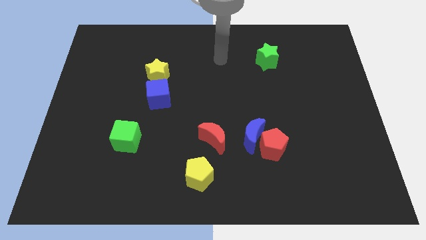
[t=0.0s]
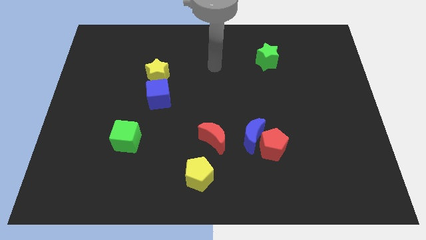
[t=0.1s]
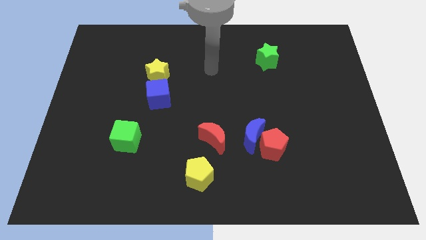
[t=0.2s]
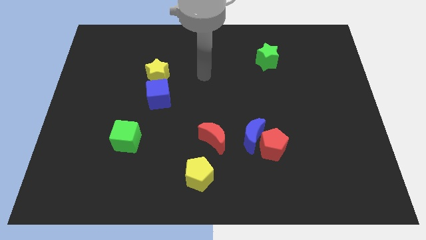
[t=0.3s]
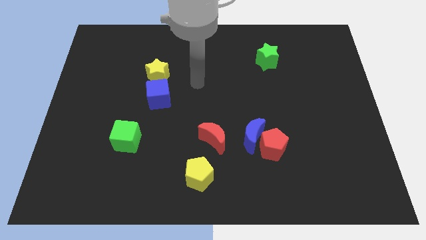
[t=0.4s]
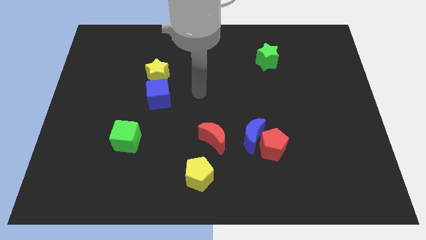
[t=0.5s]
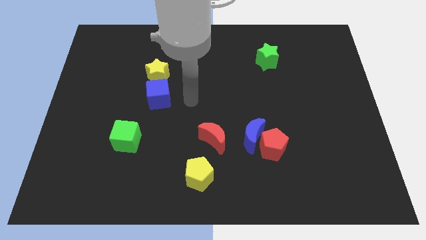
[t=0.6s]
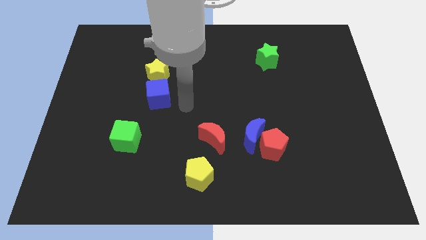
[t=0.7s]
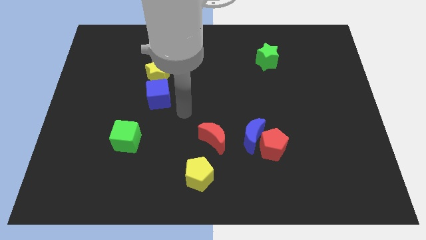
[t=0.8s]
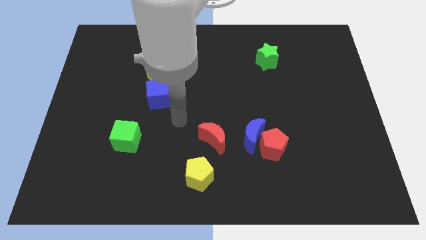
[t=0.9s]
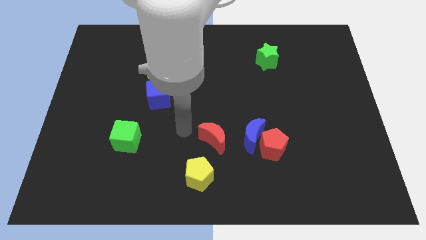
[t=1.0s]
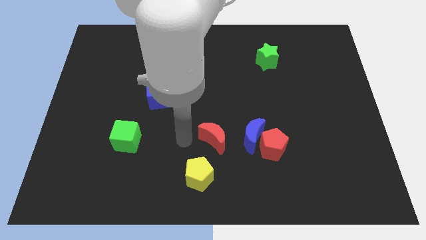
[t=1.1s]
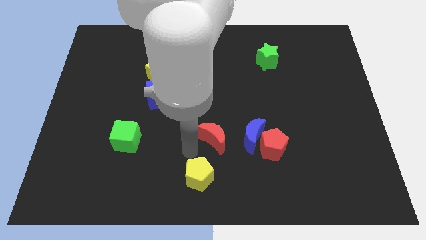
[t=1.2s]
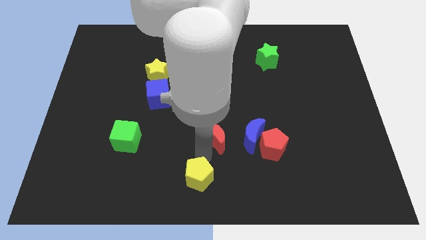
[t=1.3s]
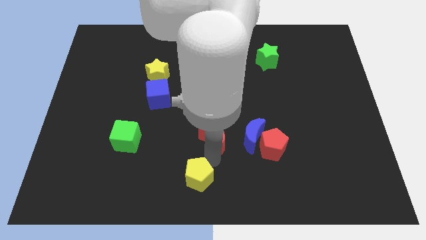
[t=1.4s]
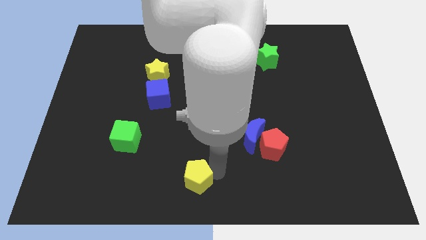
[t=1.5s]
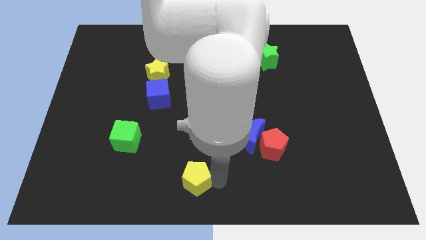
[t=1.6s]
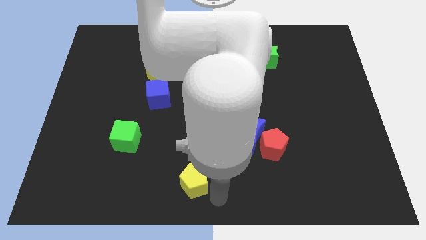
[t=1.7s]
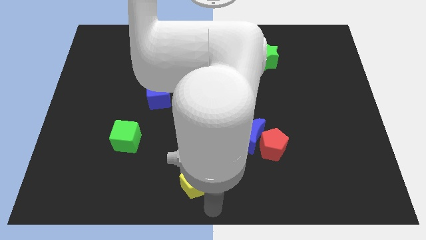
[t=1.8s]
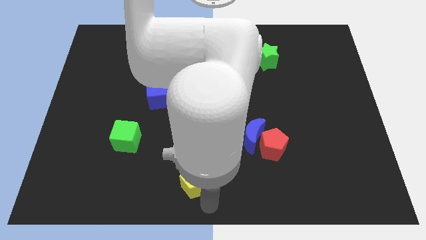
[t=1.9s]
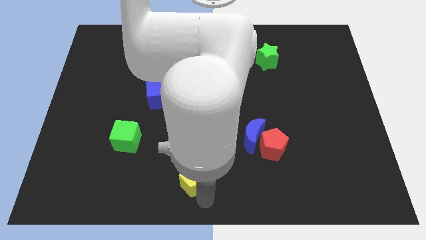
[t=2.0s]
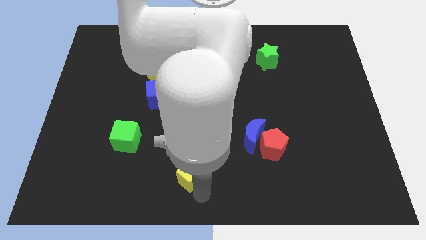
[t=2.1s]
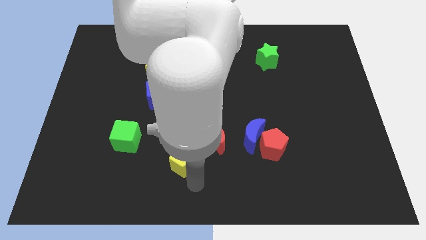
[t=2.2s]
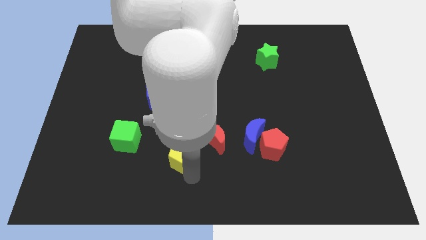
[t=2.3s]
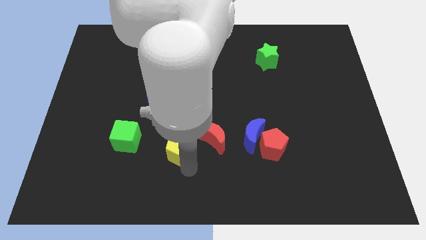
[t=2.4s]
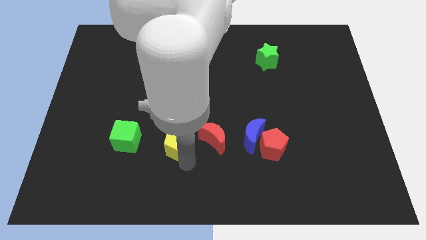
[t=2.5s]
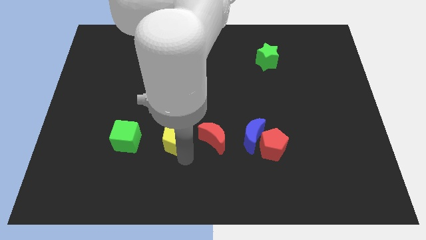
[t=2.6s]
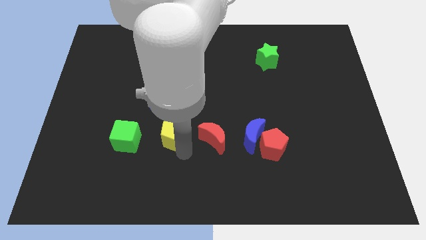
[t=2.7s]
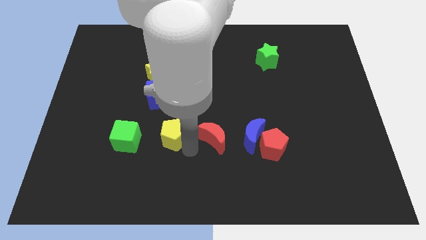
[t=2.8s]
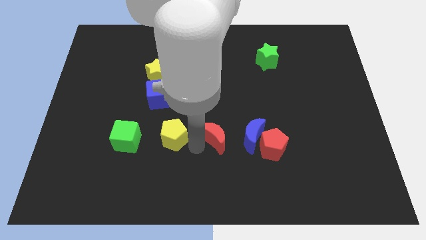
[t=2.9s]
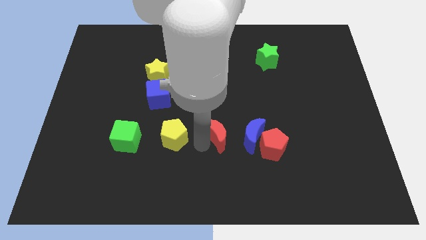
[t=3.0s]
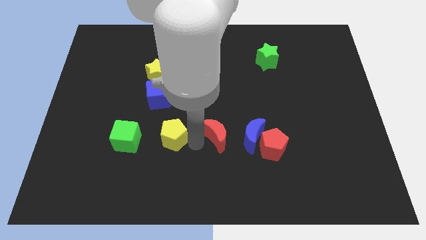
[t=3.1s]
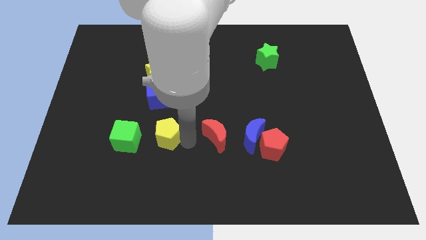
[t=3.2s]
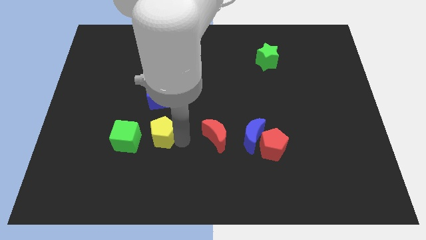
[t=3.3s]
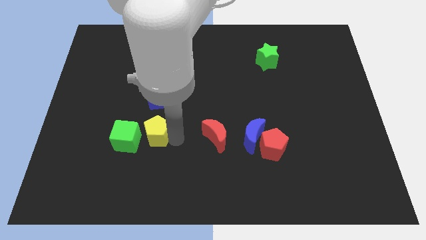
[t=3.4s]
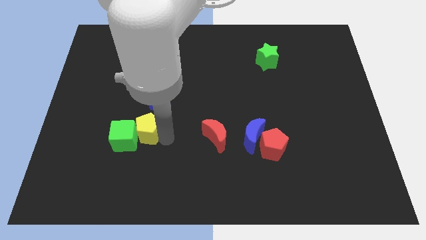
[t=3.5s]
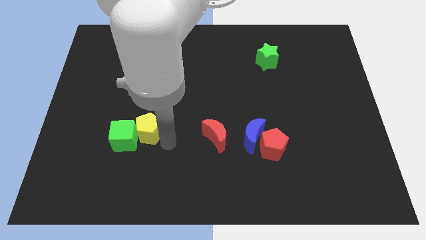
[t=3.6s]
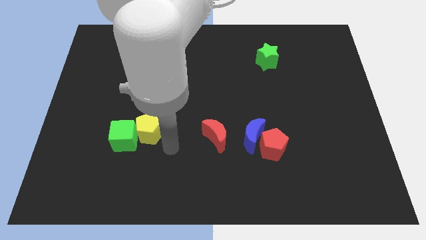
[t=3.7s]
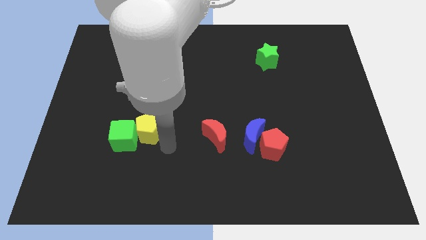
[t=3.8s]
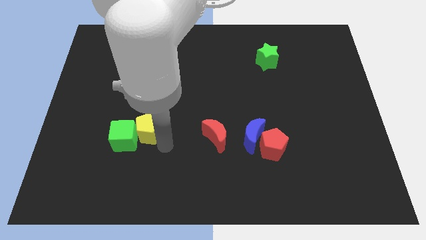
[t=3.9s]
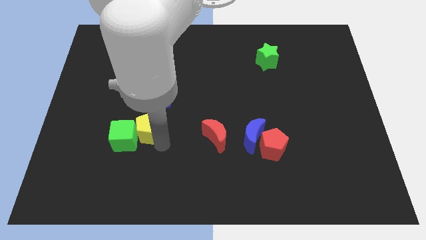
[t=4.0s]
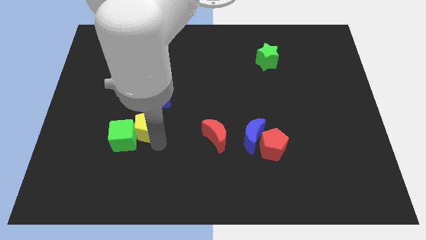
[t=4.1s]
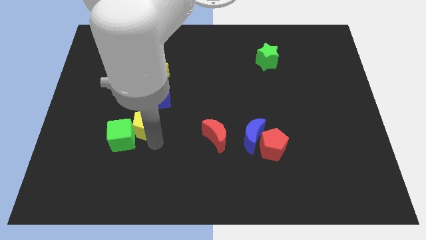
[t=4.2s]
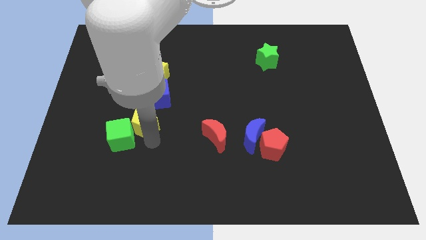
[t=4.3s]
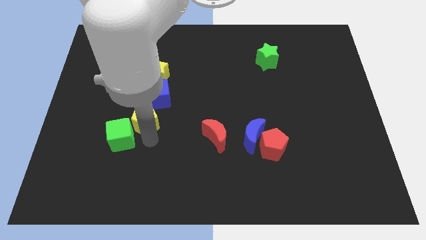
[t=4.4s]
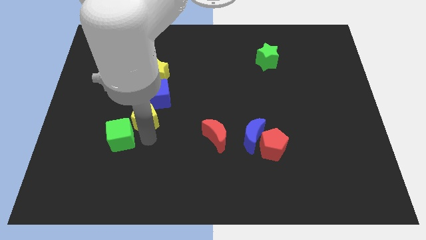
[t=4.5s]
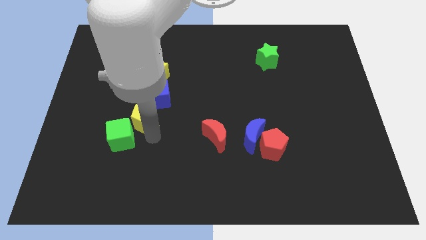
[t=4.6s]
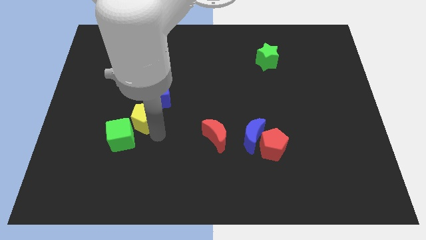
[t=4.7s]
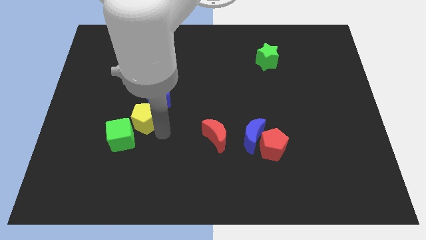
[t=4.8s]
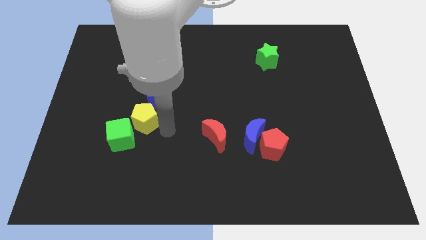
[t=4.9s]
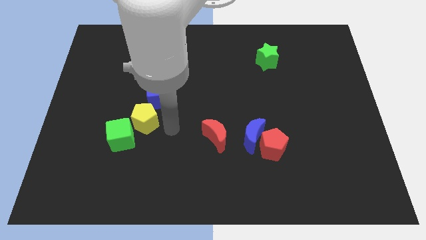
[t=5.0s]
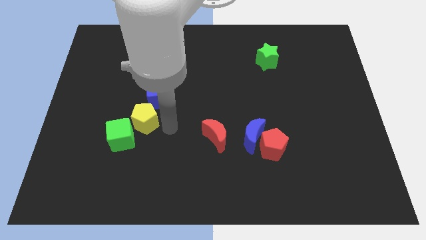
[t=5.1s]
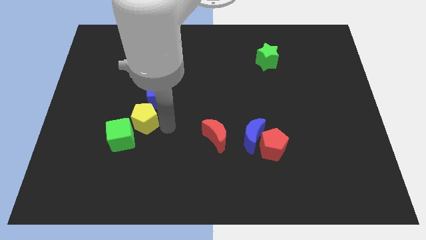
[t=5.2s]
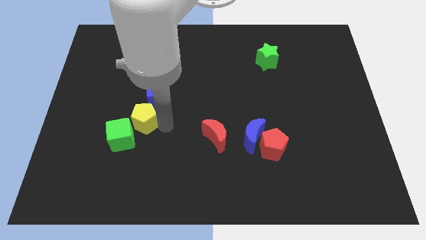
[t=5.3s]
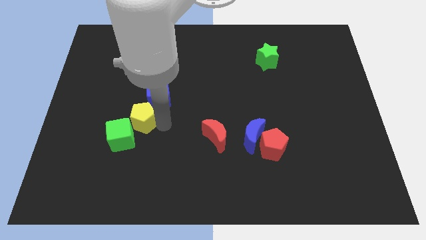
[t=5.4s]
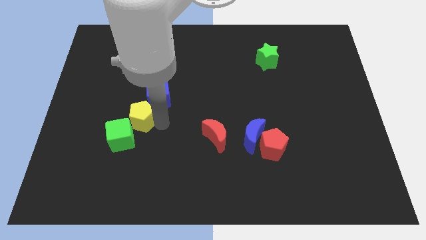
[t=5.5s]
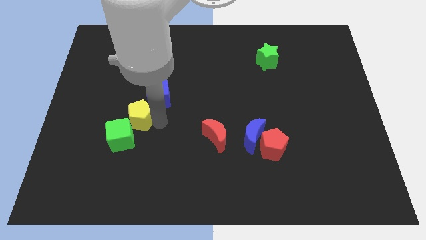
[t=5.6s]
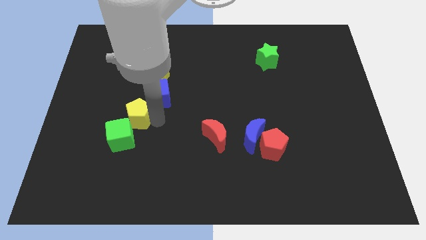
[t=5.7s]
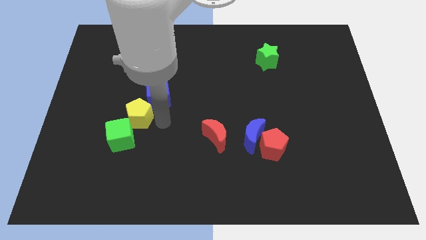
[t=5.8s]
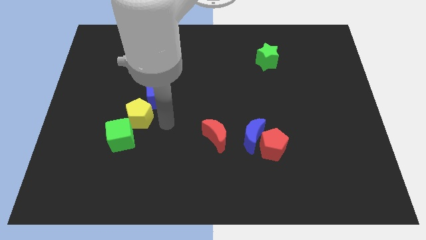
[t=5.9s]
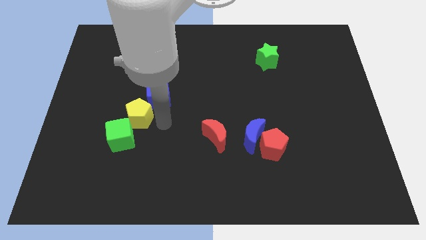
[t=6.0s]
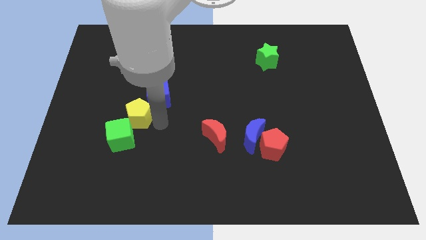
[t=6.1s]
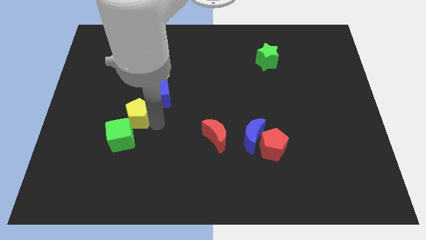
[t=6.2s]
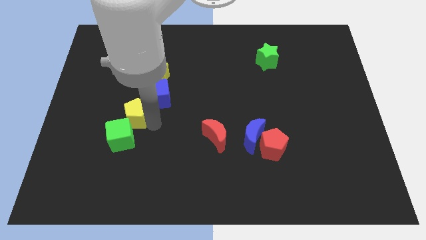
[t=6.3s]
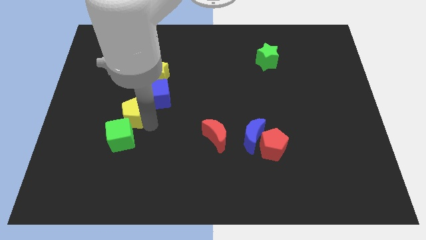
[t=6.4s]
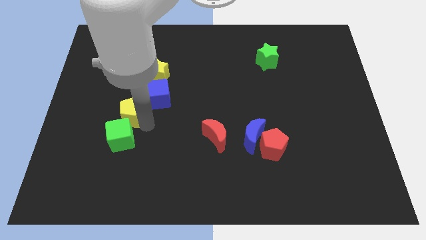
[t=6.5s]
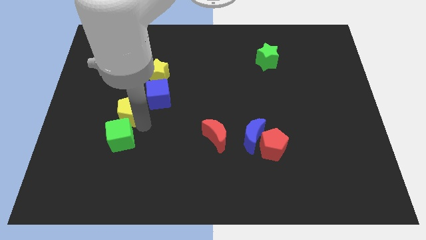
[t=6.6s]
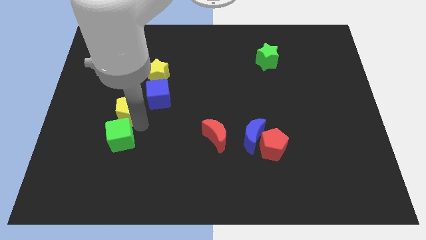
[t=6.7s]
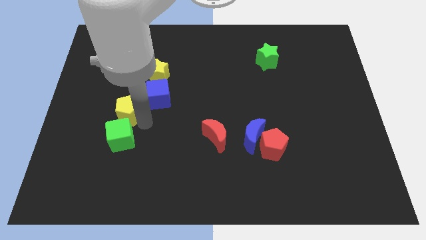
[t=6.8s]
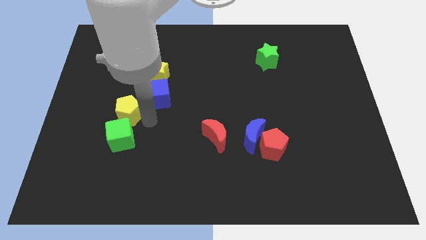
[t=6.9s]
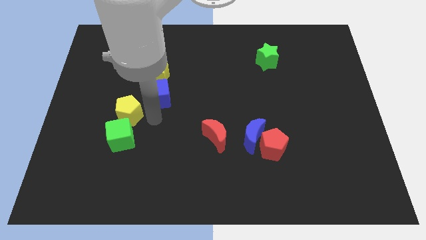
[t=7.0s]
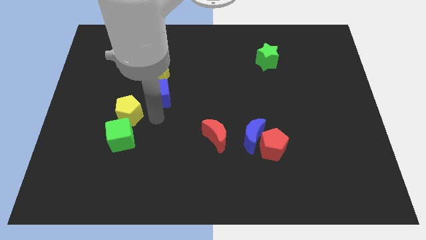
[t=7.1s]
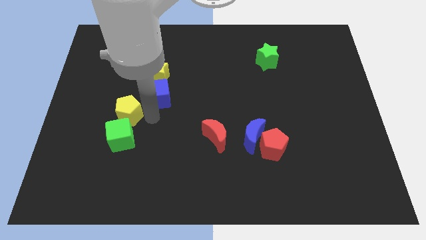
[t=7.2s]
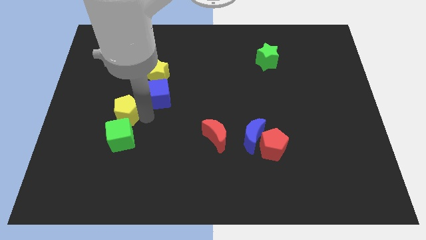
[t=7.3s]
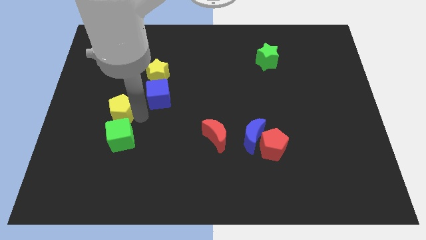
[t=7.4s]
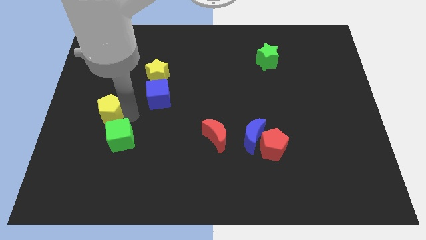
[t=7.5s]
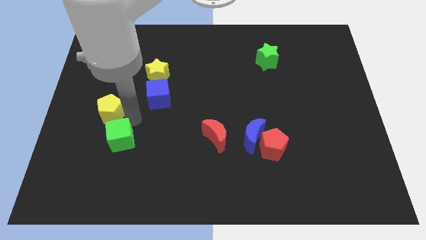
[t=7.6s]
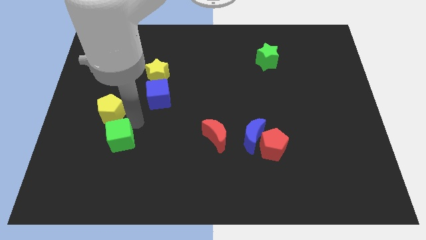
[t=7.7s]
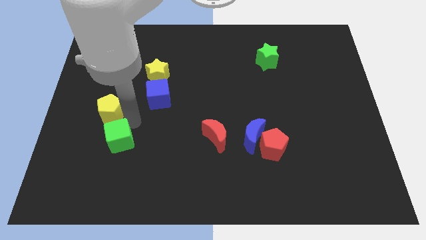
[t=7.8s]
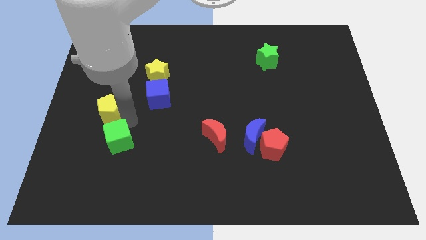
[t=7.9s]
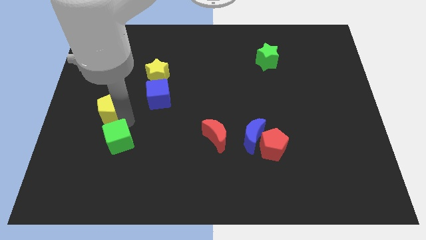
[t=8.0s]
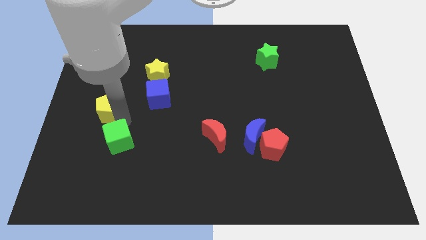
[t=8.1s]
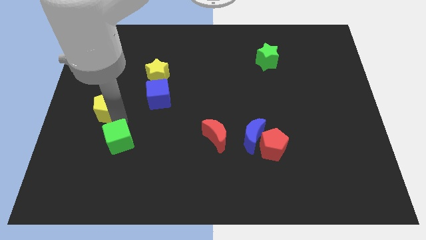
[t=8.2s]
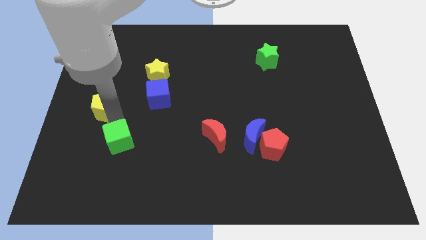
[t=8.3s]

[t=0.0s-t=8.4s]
slide the yellow pentagon to the center left
